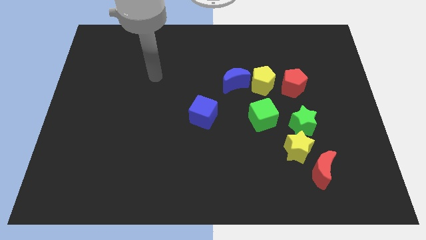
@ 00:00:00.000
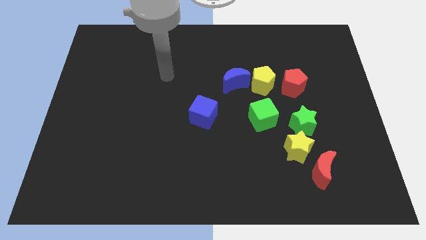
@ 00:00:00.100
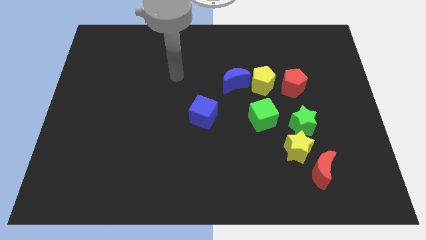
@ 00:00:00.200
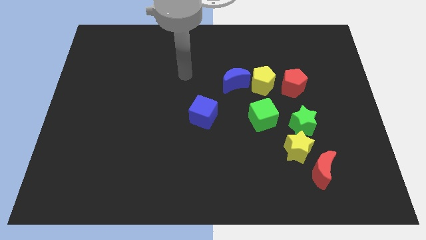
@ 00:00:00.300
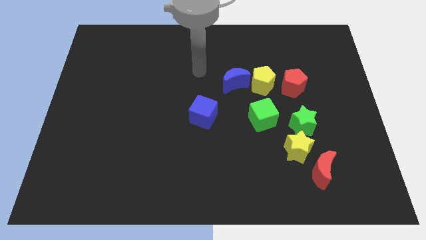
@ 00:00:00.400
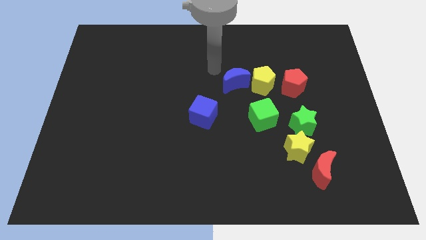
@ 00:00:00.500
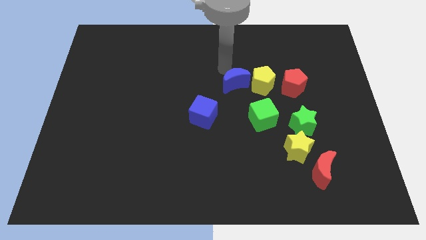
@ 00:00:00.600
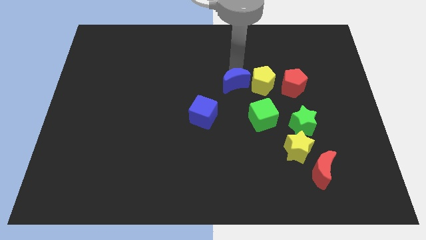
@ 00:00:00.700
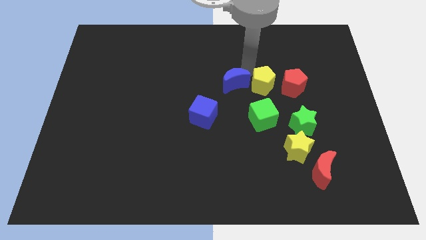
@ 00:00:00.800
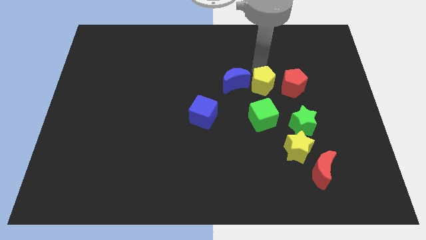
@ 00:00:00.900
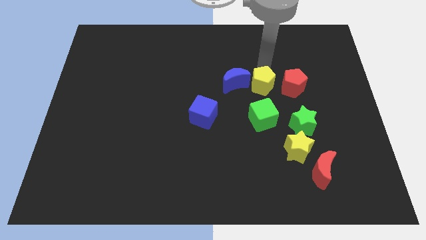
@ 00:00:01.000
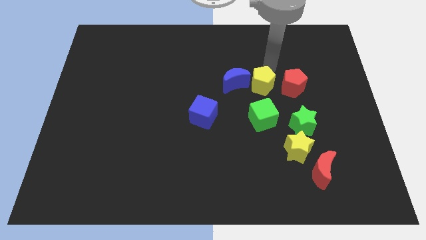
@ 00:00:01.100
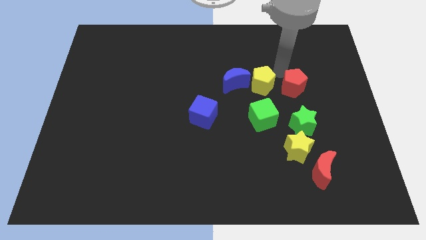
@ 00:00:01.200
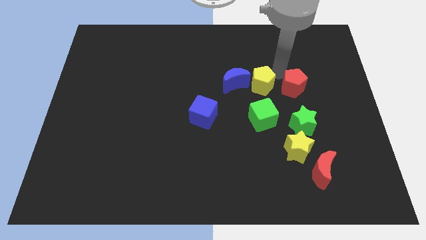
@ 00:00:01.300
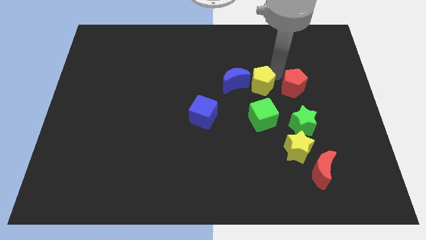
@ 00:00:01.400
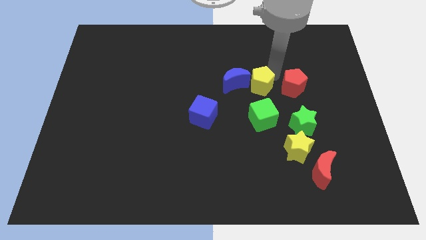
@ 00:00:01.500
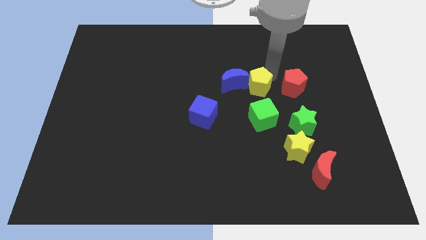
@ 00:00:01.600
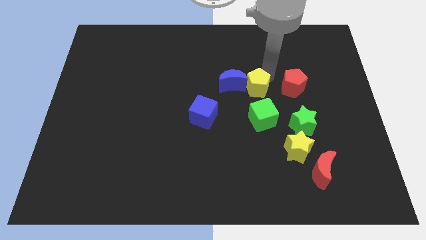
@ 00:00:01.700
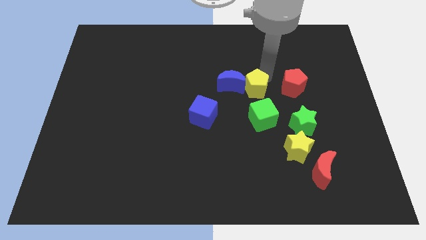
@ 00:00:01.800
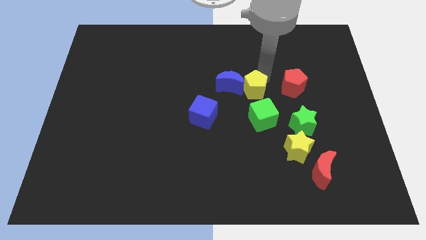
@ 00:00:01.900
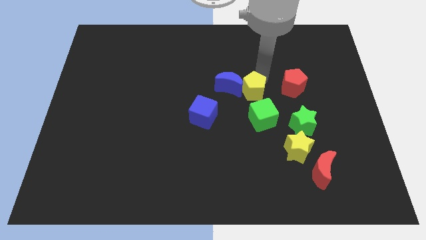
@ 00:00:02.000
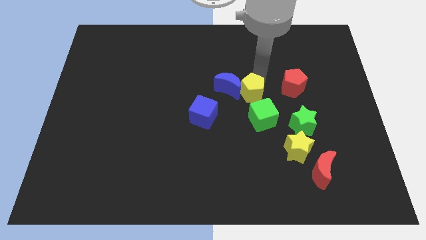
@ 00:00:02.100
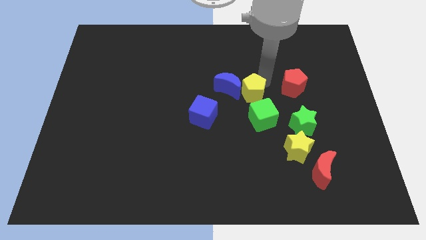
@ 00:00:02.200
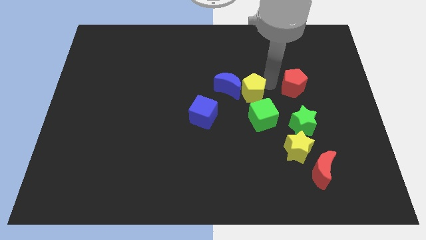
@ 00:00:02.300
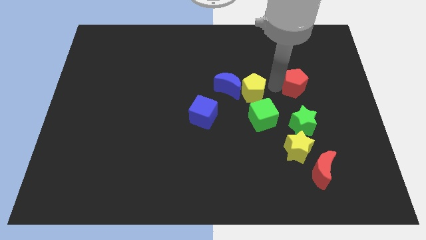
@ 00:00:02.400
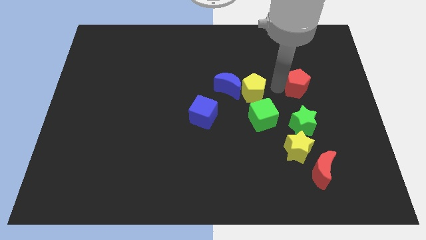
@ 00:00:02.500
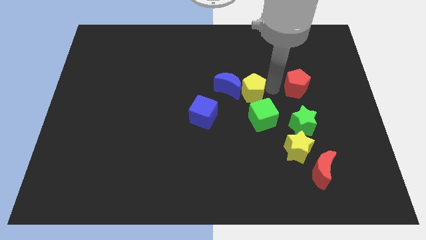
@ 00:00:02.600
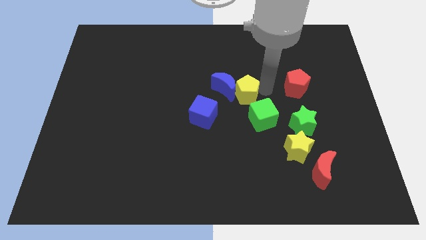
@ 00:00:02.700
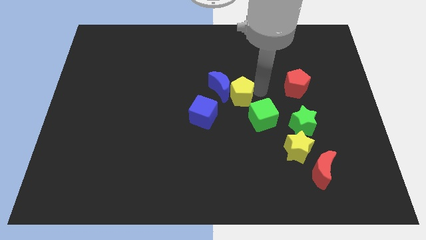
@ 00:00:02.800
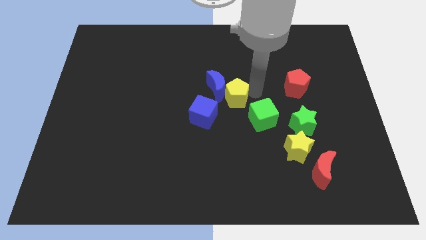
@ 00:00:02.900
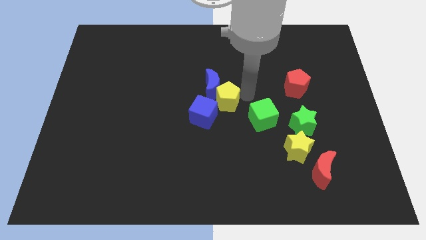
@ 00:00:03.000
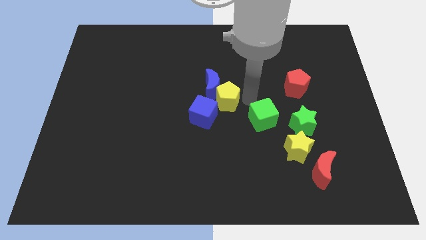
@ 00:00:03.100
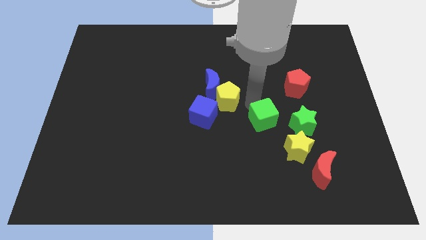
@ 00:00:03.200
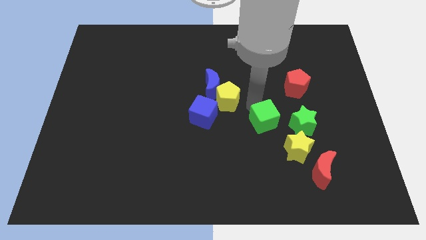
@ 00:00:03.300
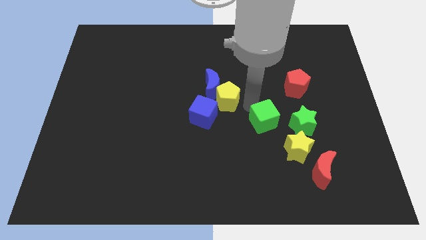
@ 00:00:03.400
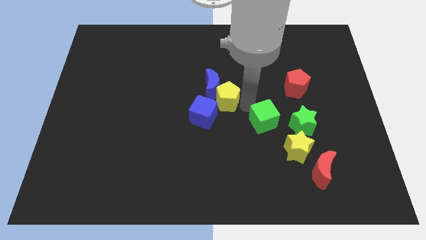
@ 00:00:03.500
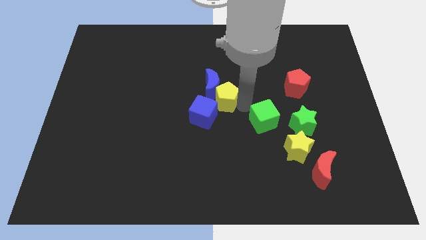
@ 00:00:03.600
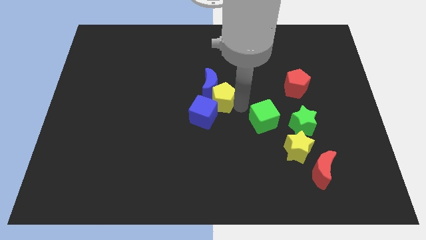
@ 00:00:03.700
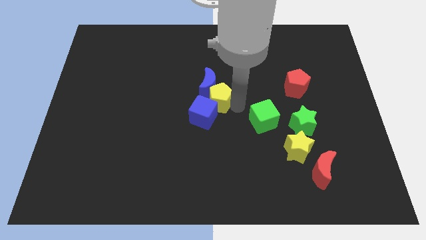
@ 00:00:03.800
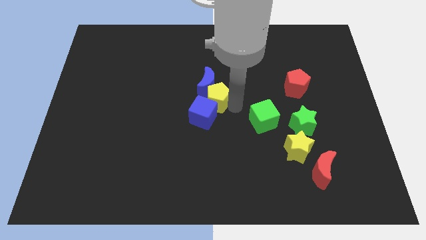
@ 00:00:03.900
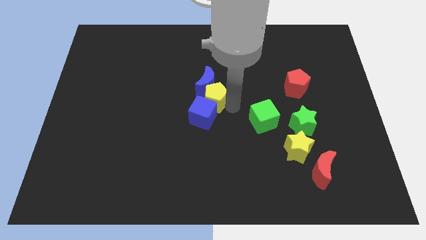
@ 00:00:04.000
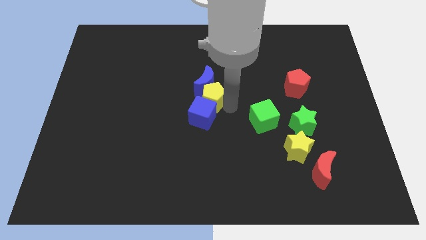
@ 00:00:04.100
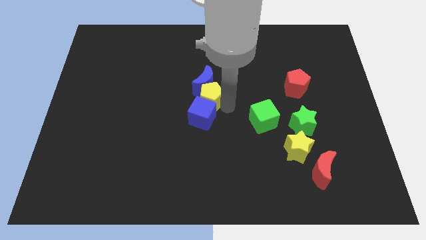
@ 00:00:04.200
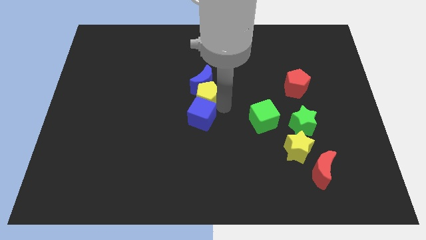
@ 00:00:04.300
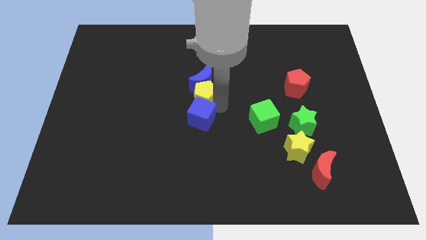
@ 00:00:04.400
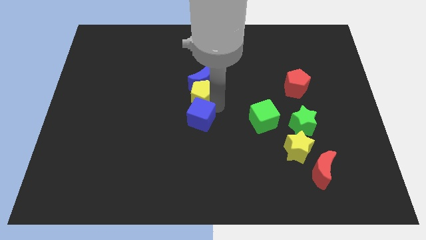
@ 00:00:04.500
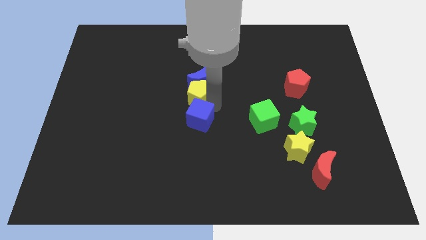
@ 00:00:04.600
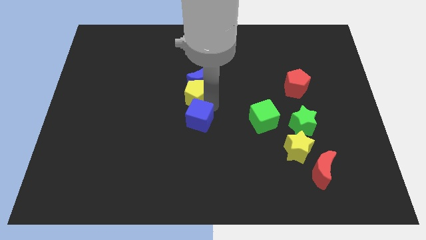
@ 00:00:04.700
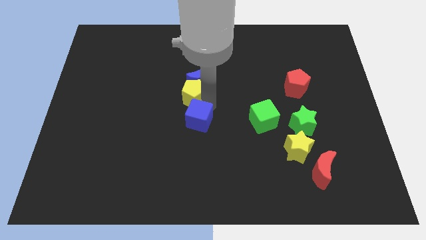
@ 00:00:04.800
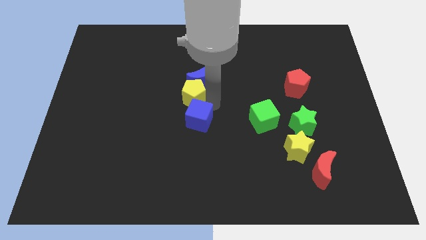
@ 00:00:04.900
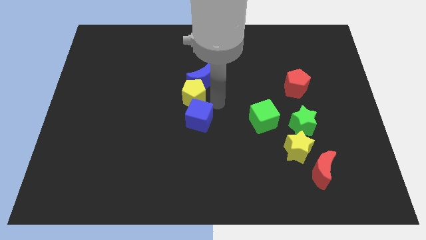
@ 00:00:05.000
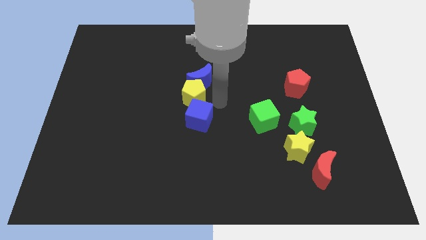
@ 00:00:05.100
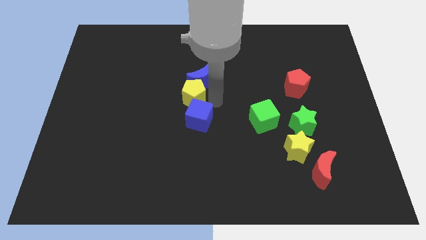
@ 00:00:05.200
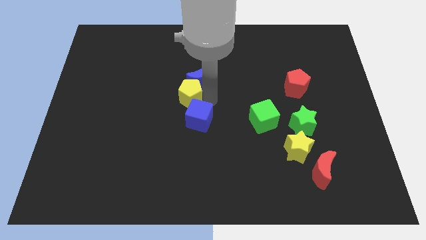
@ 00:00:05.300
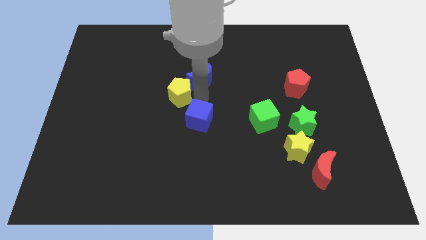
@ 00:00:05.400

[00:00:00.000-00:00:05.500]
move the yellow pentagon to the left

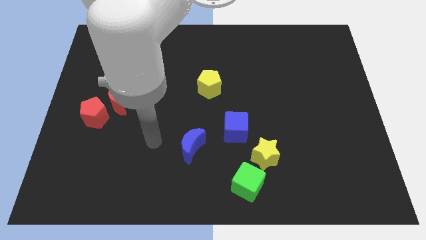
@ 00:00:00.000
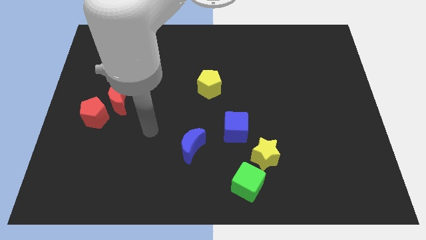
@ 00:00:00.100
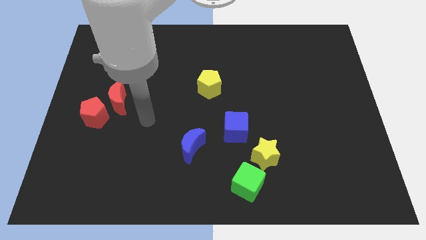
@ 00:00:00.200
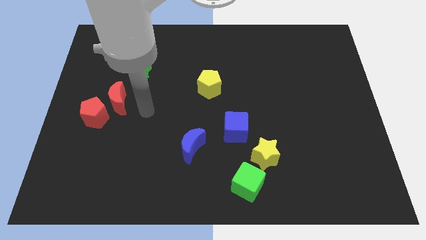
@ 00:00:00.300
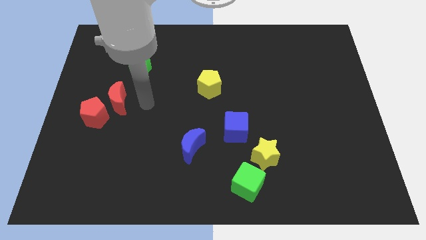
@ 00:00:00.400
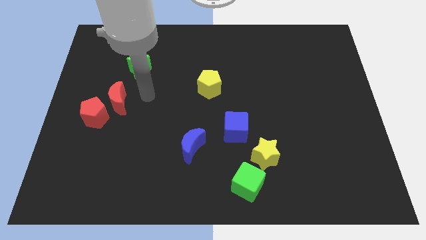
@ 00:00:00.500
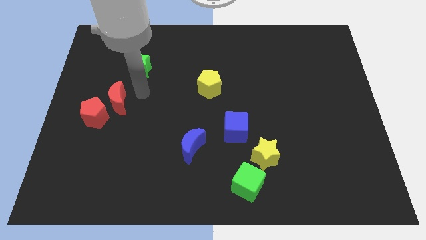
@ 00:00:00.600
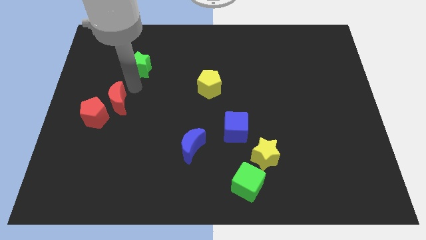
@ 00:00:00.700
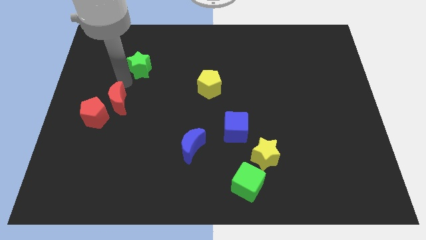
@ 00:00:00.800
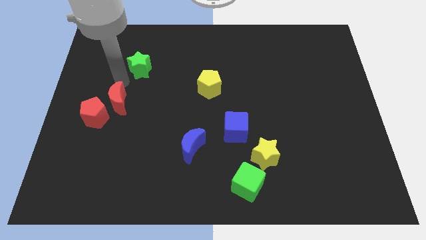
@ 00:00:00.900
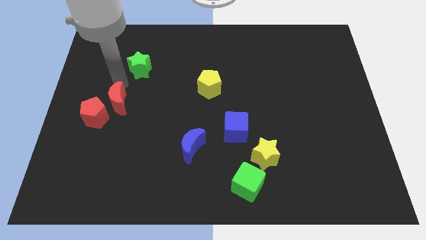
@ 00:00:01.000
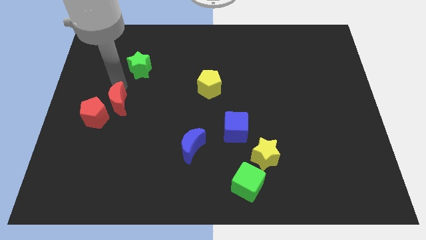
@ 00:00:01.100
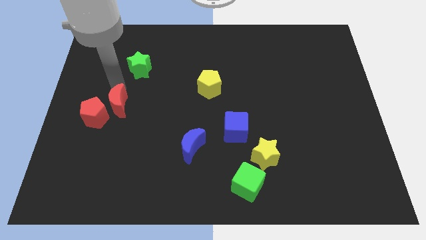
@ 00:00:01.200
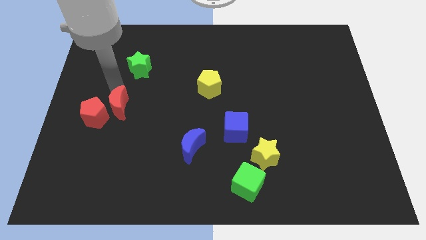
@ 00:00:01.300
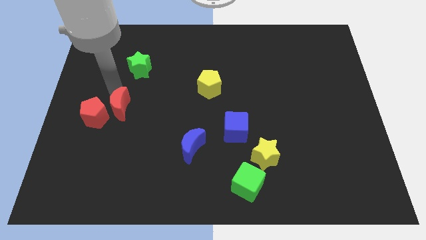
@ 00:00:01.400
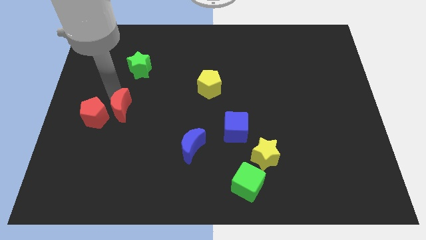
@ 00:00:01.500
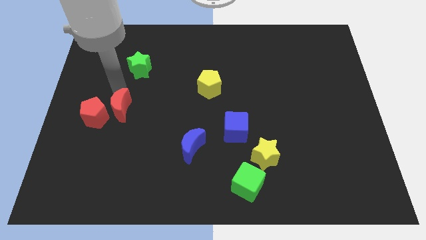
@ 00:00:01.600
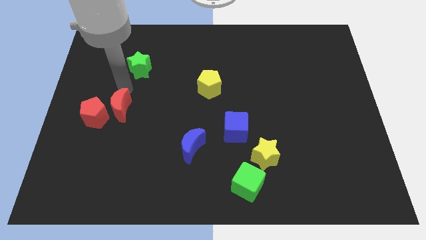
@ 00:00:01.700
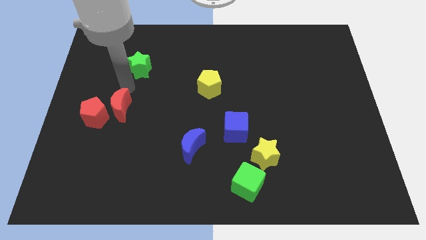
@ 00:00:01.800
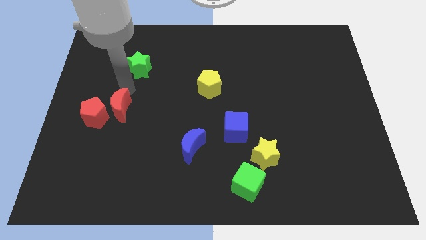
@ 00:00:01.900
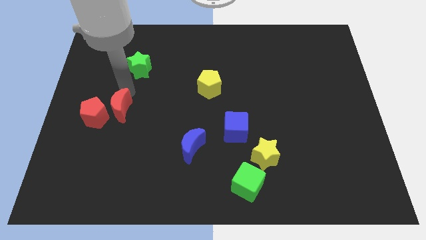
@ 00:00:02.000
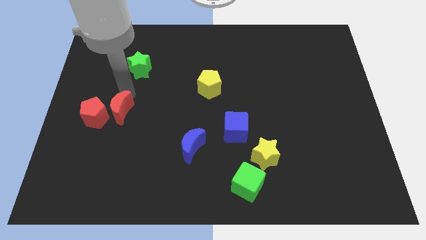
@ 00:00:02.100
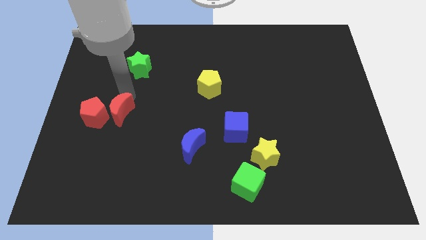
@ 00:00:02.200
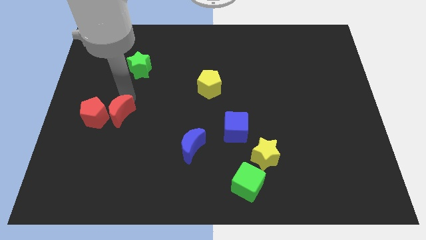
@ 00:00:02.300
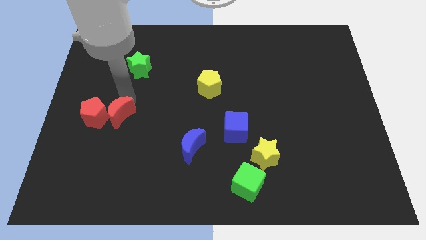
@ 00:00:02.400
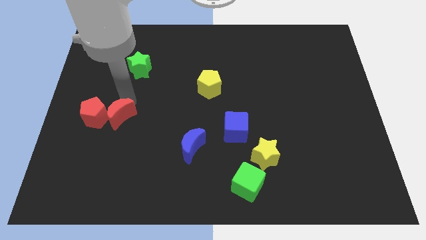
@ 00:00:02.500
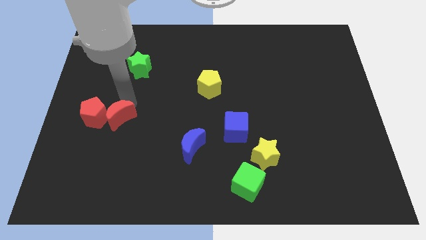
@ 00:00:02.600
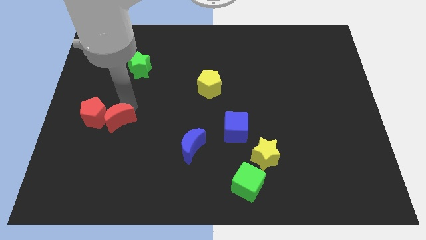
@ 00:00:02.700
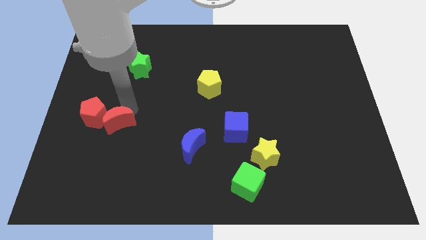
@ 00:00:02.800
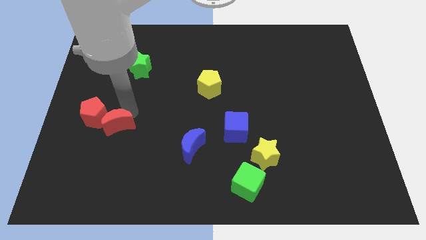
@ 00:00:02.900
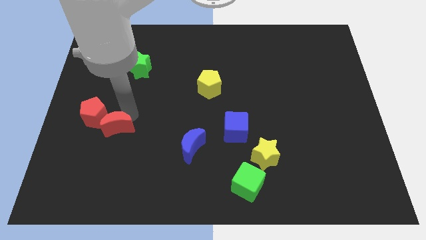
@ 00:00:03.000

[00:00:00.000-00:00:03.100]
move the red moon down somewhat
